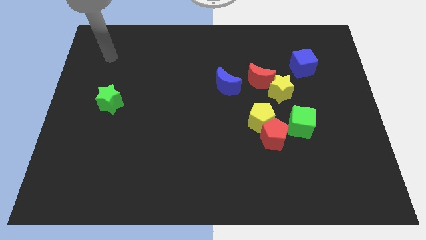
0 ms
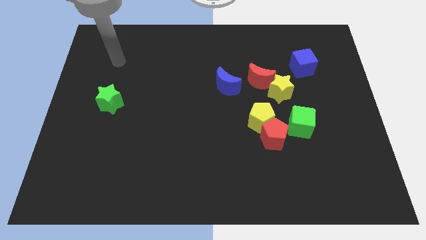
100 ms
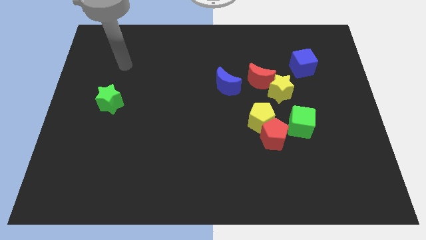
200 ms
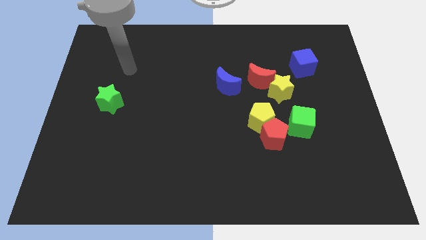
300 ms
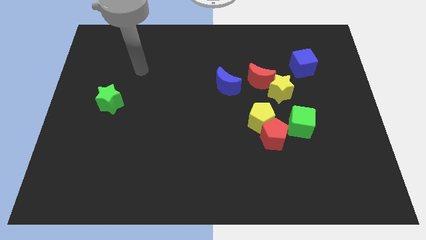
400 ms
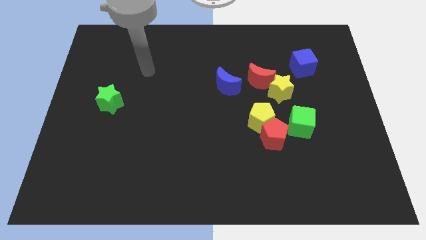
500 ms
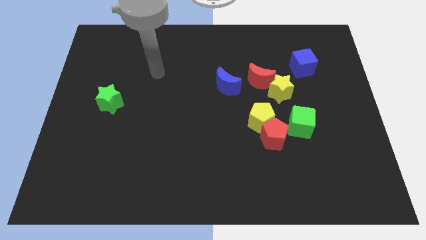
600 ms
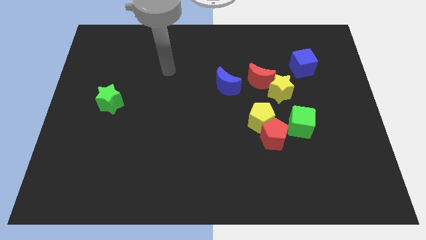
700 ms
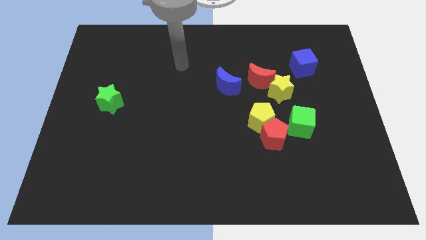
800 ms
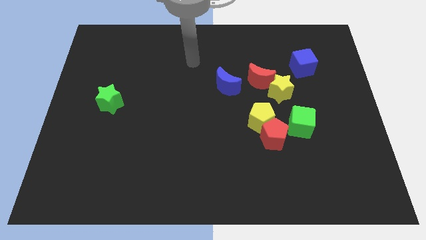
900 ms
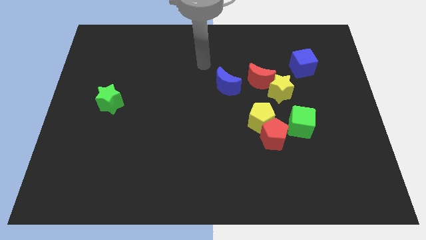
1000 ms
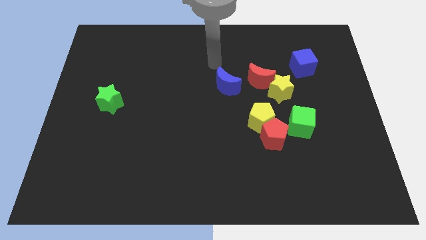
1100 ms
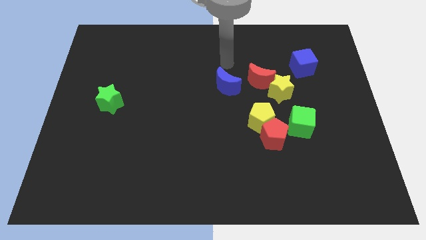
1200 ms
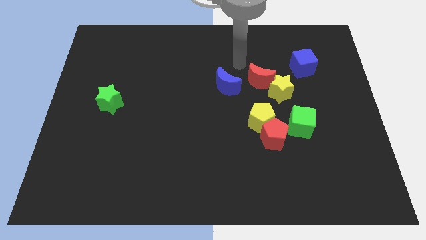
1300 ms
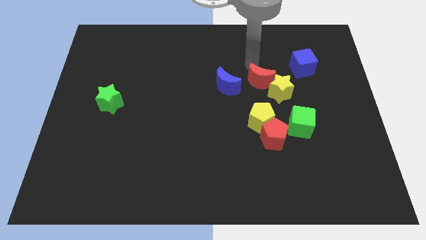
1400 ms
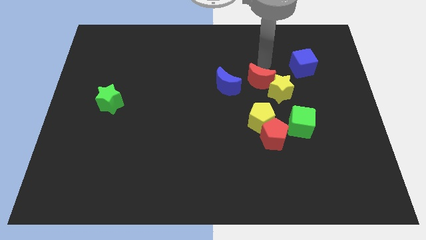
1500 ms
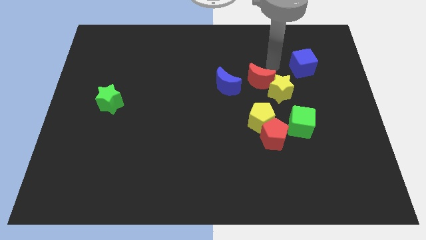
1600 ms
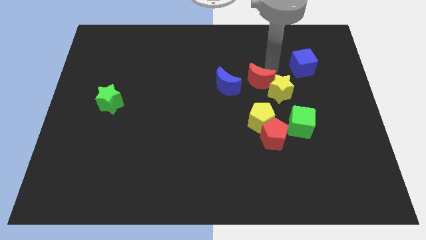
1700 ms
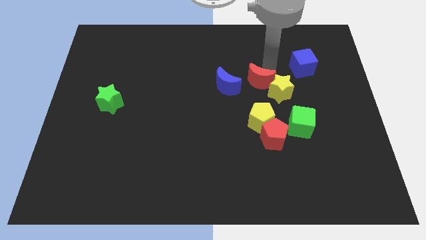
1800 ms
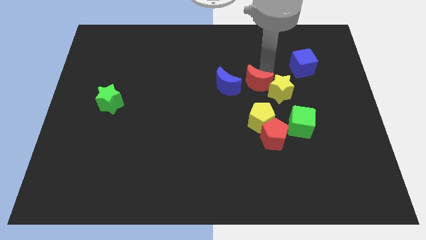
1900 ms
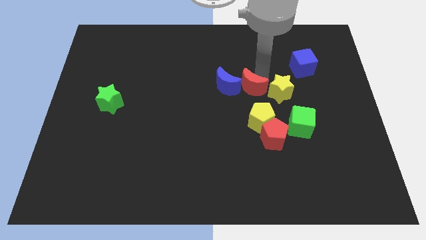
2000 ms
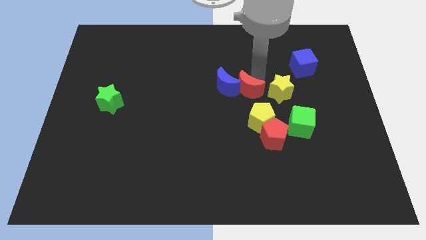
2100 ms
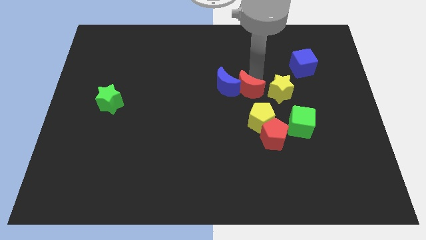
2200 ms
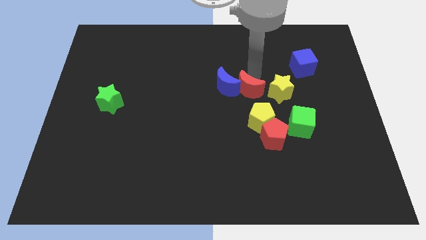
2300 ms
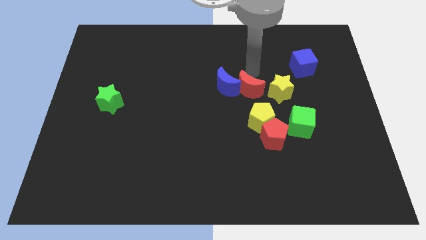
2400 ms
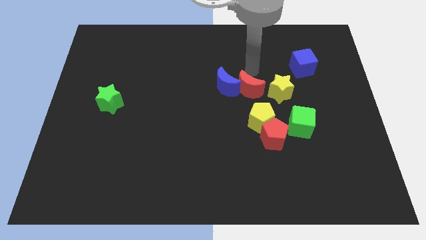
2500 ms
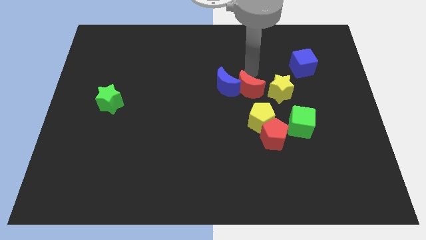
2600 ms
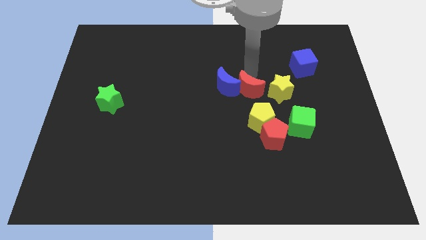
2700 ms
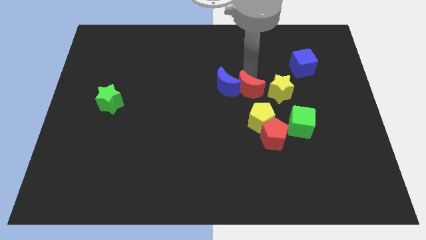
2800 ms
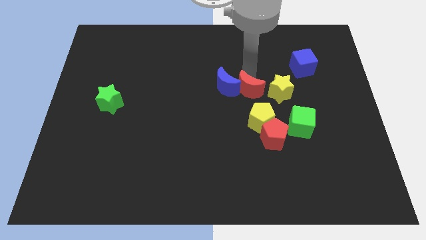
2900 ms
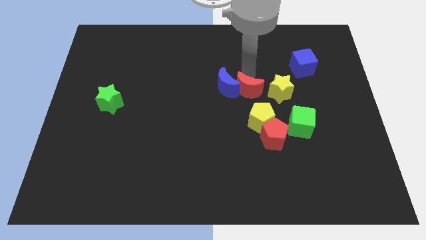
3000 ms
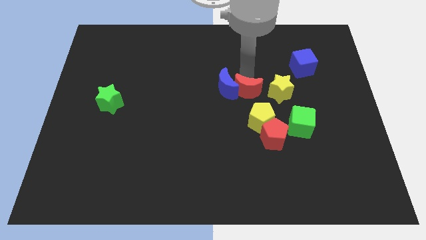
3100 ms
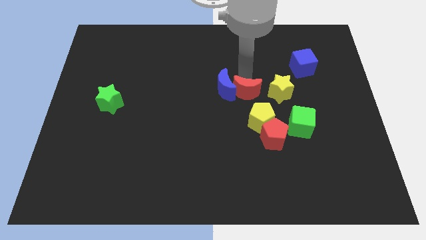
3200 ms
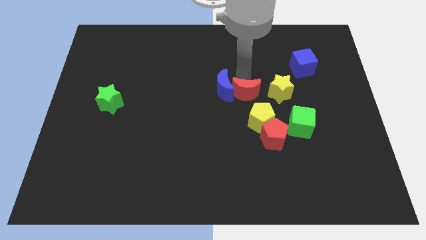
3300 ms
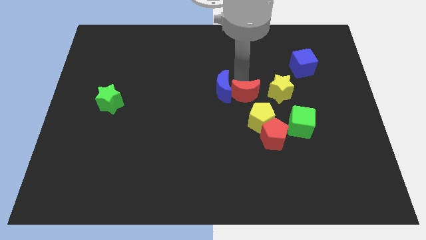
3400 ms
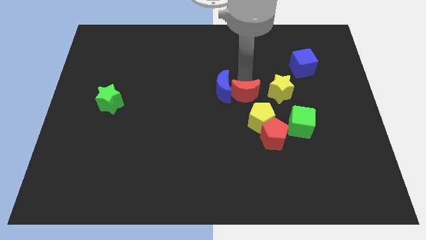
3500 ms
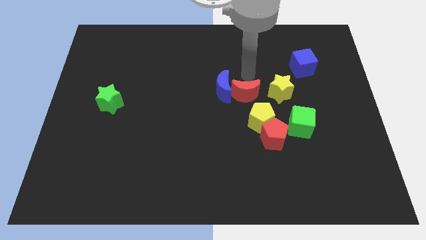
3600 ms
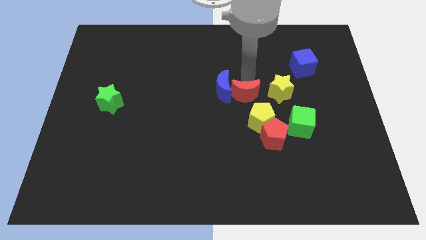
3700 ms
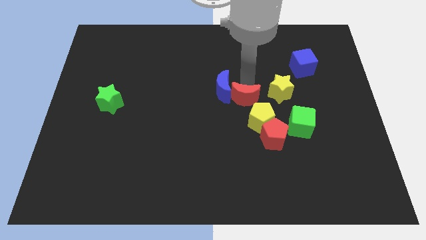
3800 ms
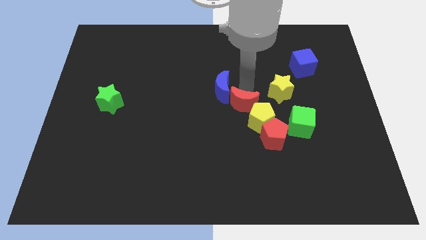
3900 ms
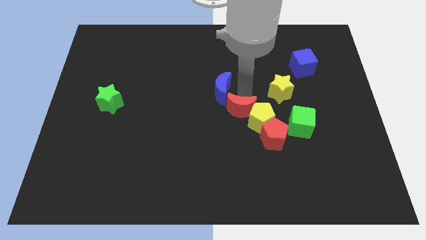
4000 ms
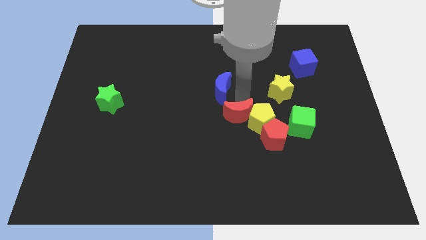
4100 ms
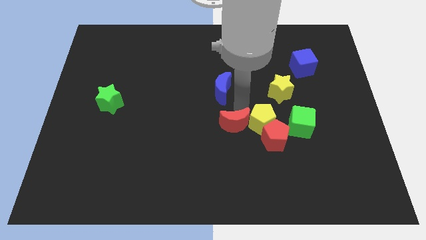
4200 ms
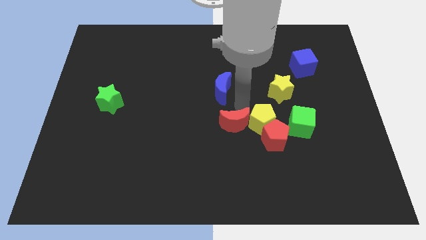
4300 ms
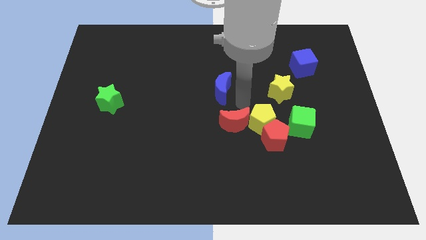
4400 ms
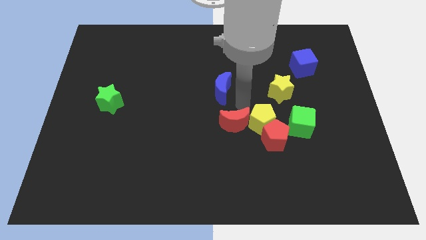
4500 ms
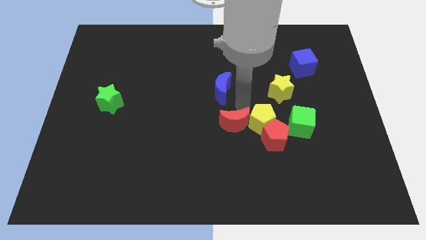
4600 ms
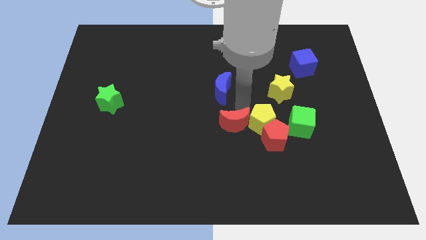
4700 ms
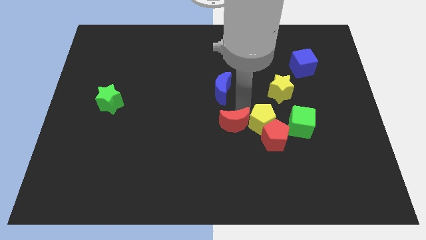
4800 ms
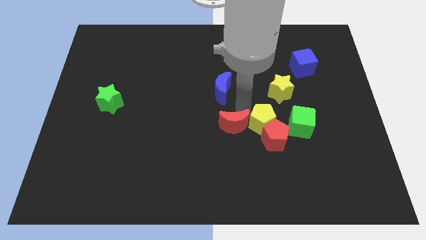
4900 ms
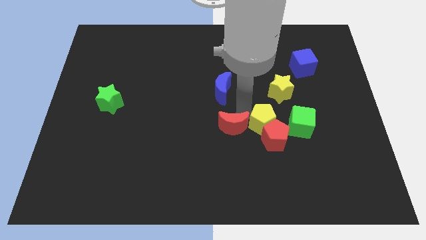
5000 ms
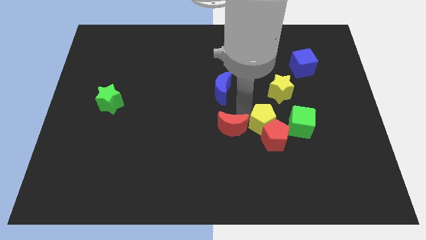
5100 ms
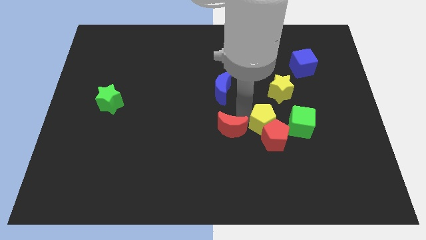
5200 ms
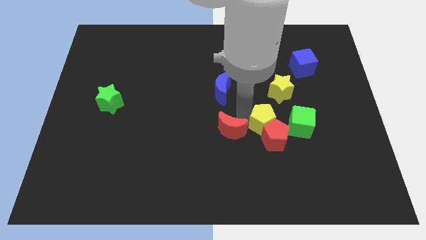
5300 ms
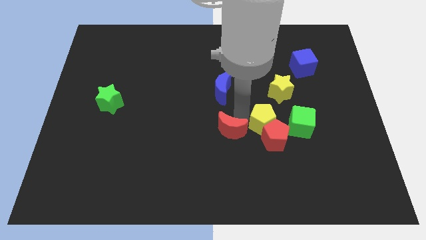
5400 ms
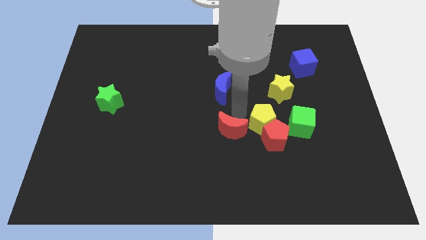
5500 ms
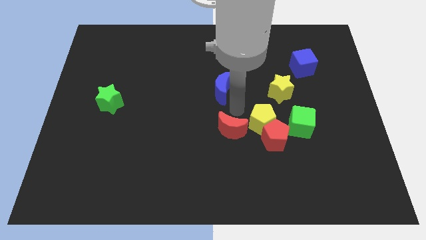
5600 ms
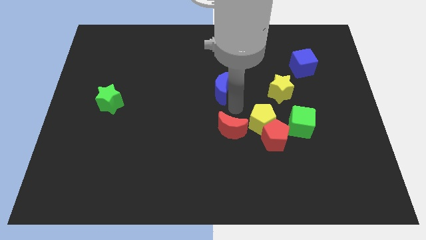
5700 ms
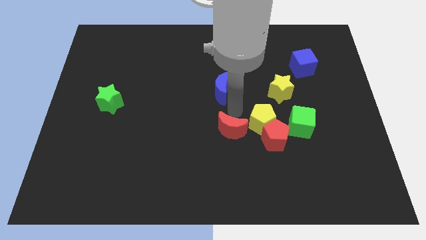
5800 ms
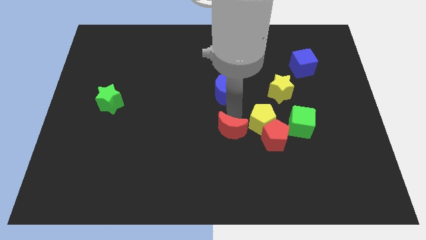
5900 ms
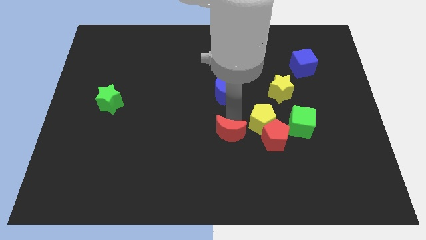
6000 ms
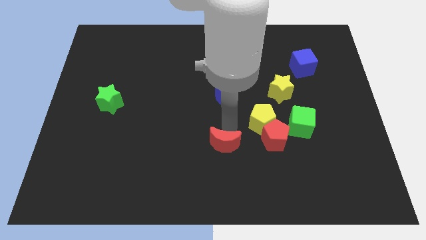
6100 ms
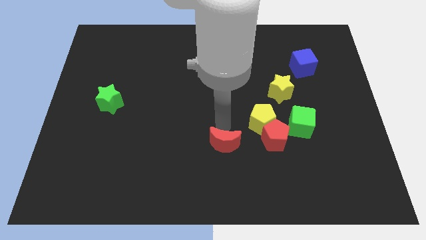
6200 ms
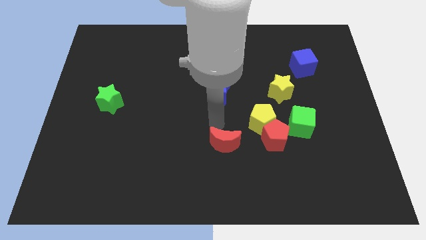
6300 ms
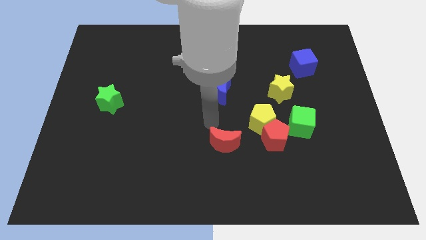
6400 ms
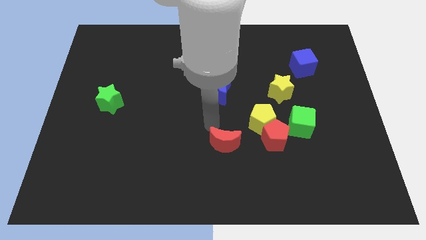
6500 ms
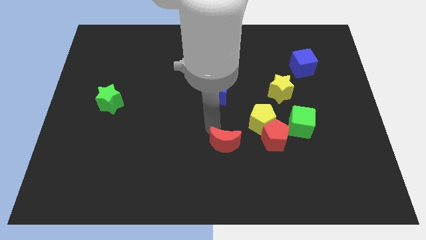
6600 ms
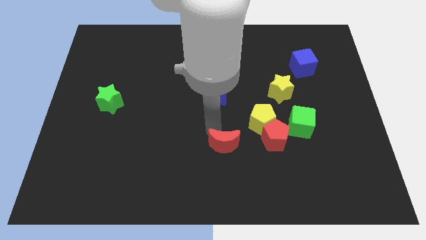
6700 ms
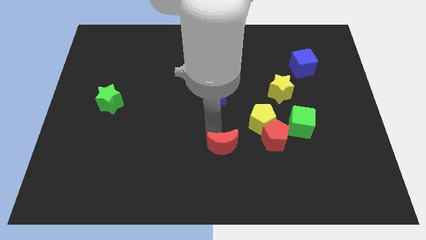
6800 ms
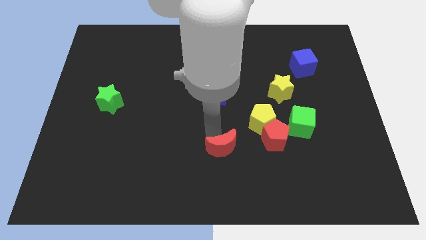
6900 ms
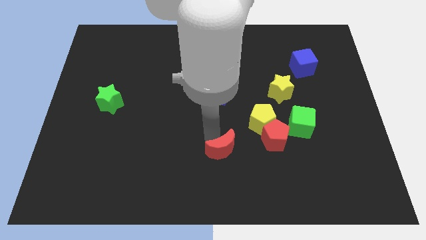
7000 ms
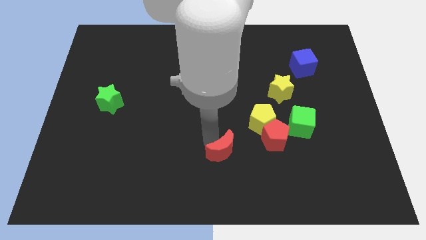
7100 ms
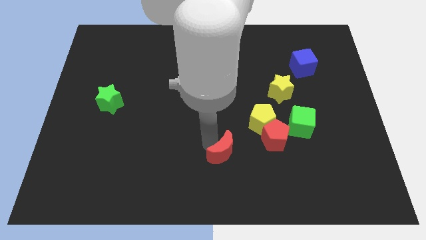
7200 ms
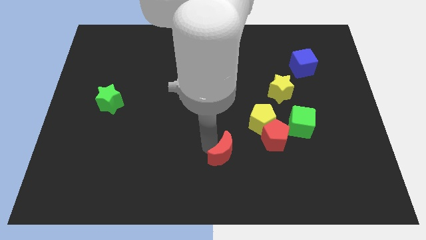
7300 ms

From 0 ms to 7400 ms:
put the red moon to the bottom

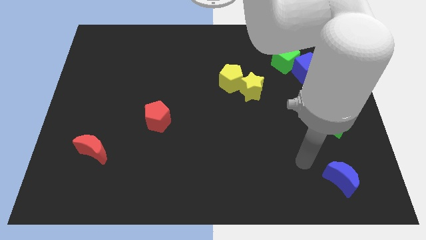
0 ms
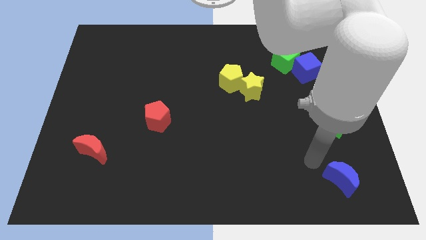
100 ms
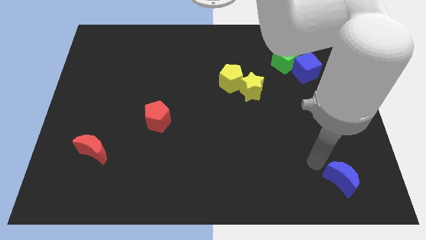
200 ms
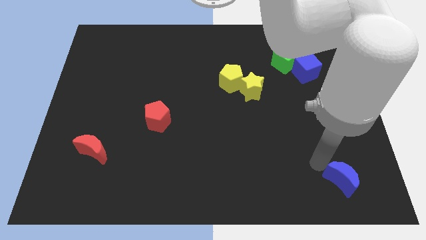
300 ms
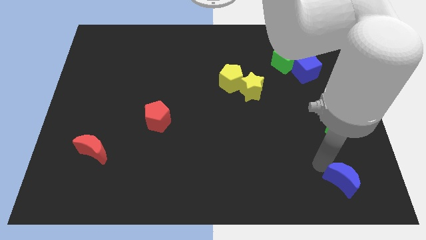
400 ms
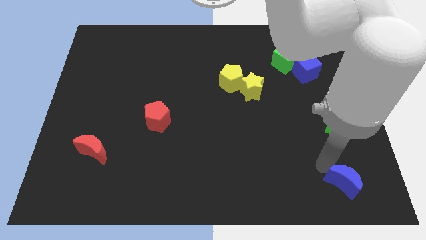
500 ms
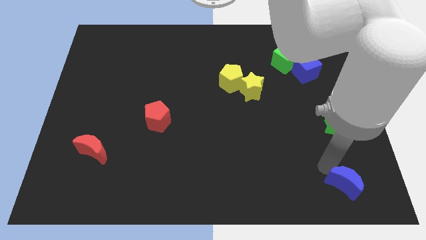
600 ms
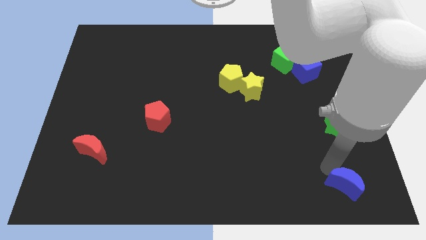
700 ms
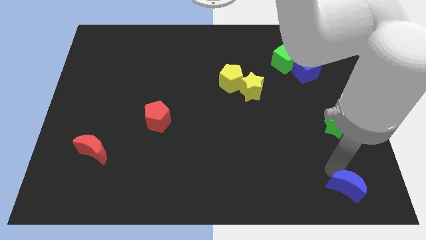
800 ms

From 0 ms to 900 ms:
move the blue moon to the bottom right corner
